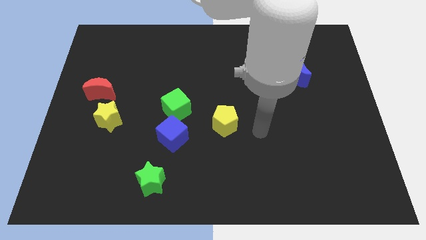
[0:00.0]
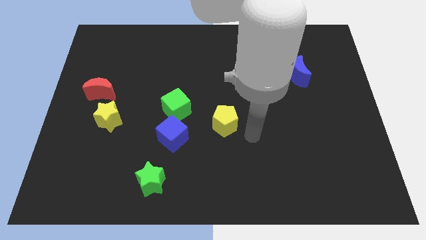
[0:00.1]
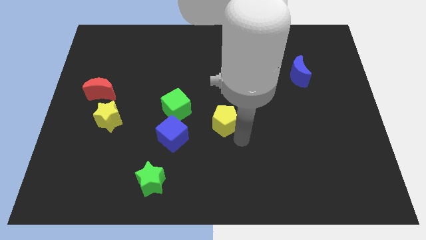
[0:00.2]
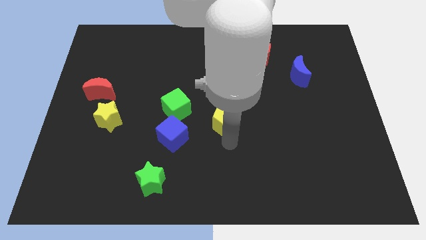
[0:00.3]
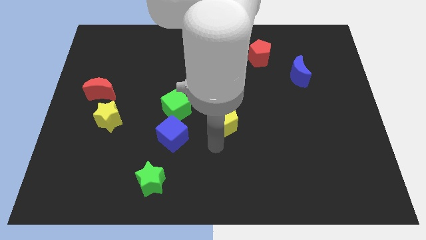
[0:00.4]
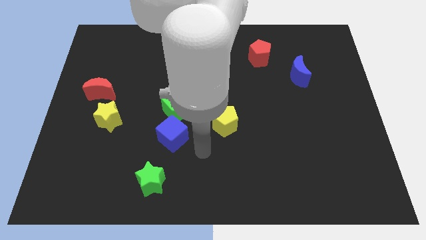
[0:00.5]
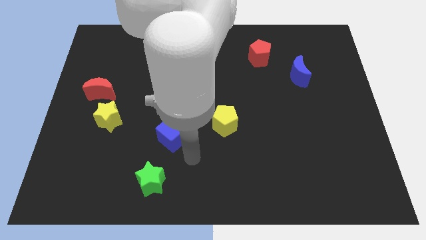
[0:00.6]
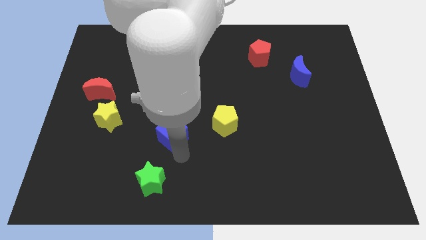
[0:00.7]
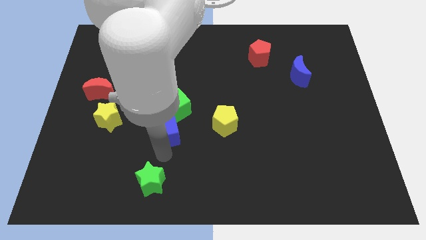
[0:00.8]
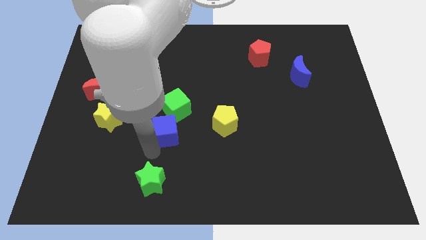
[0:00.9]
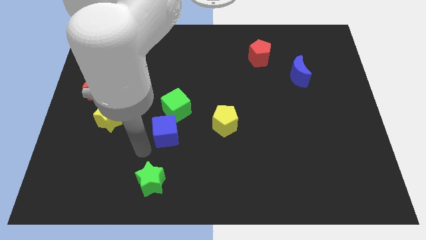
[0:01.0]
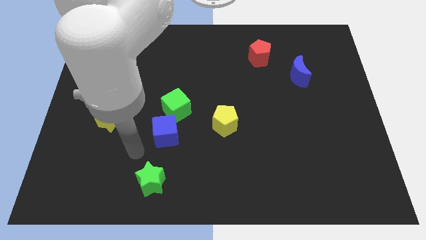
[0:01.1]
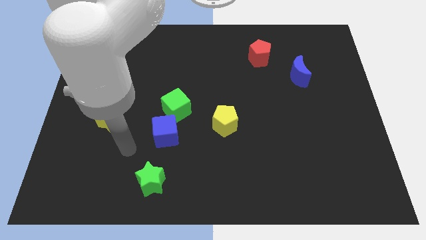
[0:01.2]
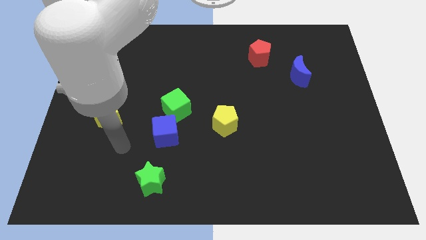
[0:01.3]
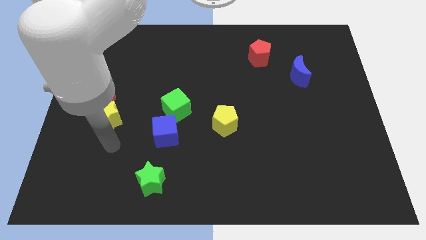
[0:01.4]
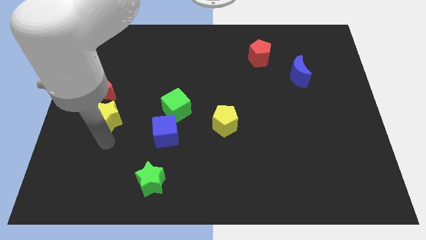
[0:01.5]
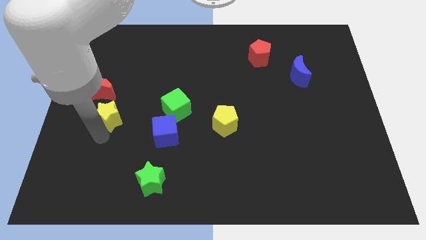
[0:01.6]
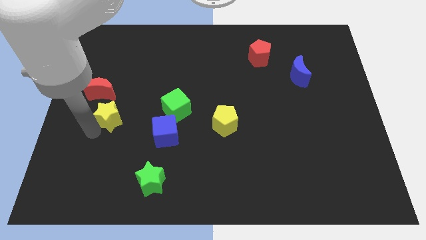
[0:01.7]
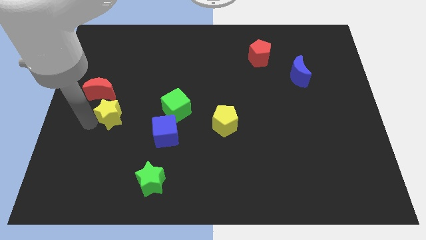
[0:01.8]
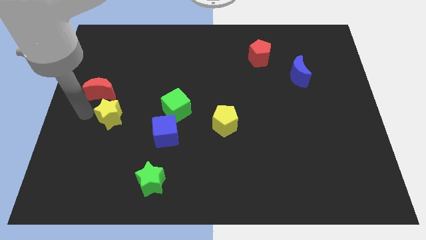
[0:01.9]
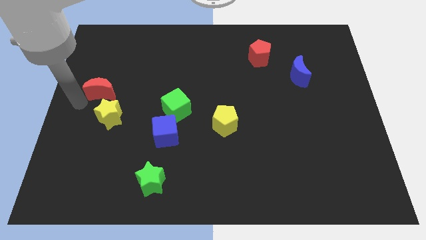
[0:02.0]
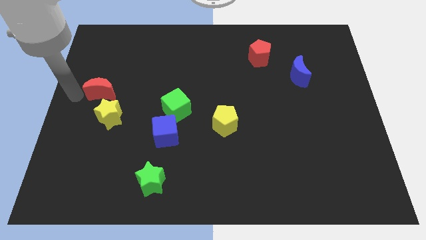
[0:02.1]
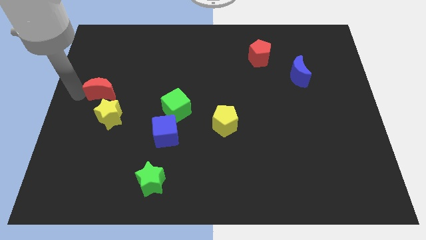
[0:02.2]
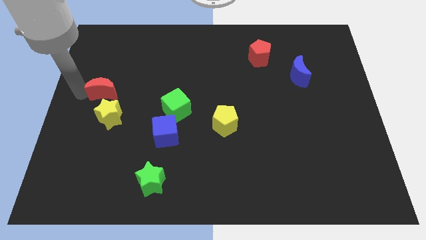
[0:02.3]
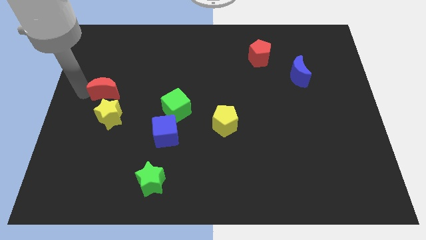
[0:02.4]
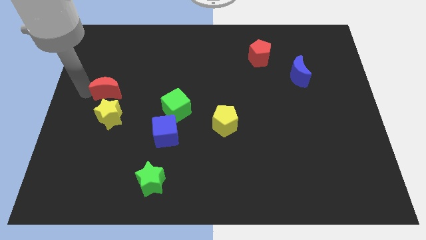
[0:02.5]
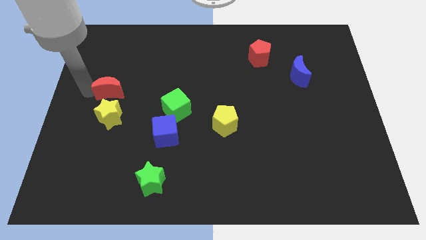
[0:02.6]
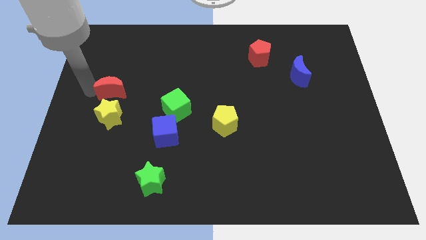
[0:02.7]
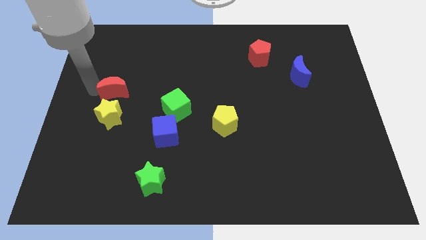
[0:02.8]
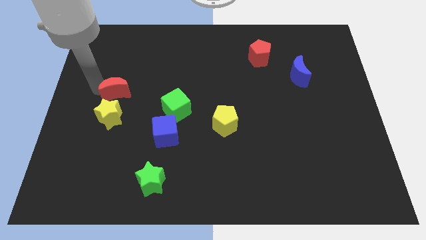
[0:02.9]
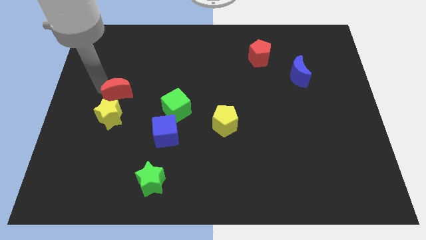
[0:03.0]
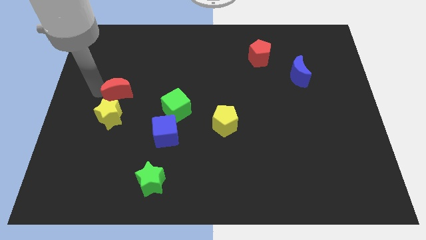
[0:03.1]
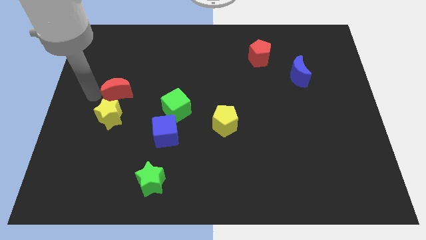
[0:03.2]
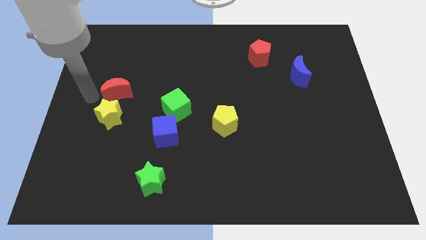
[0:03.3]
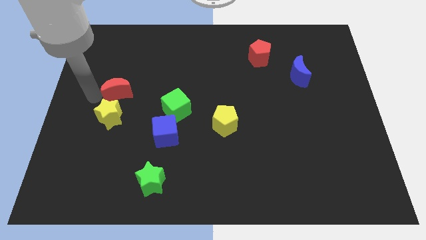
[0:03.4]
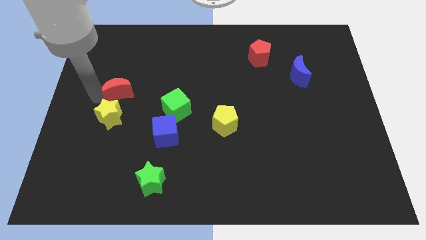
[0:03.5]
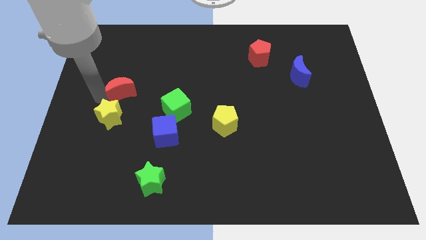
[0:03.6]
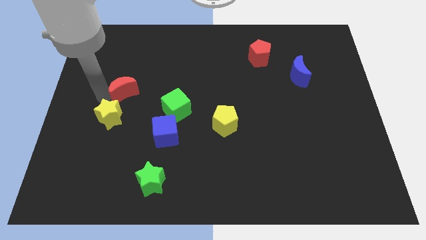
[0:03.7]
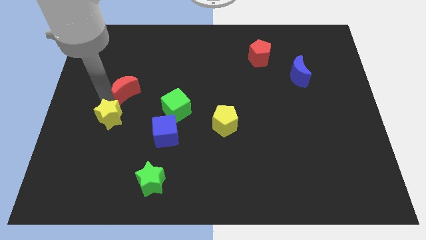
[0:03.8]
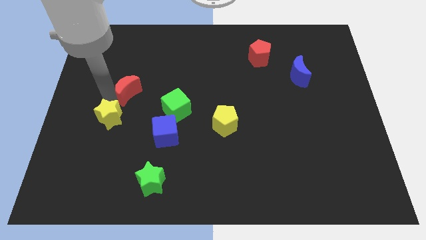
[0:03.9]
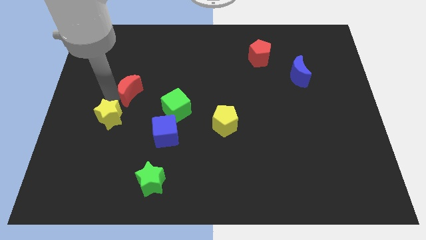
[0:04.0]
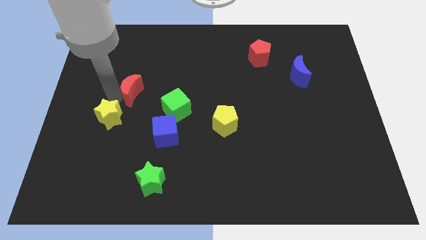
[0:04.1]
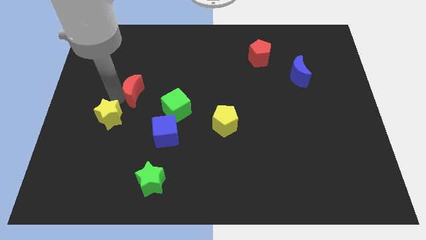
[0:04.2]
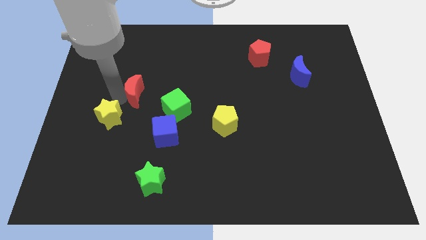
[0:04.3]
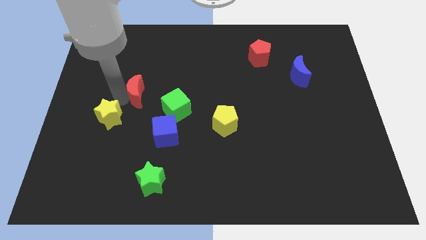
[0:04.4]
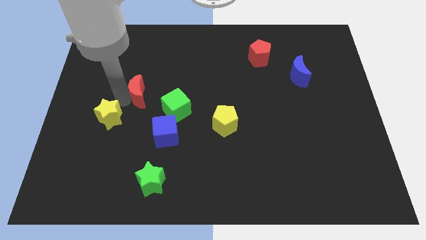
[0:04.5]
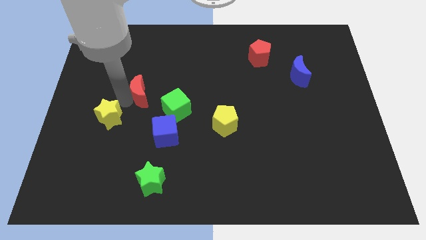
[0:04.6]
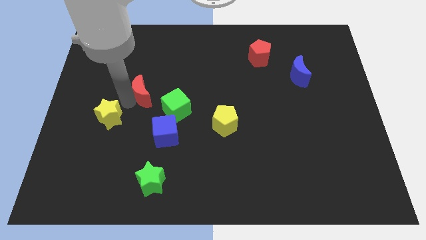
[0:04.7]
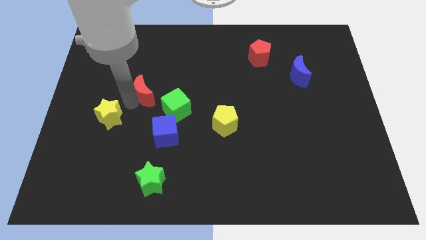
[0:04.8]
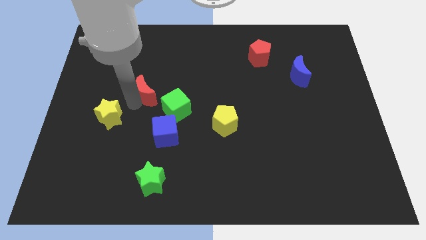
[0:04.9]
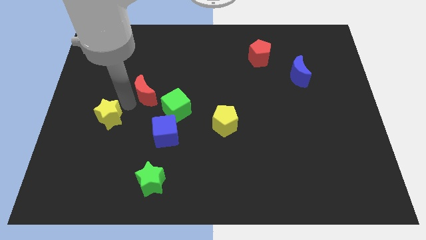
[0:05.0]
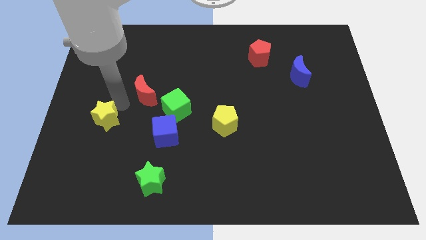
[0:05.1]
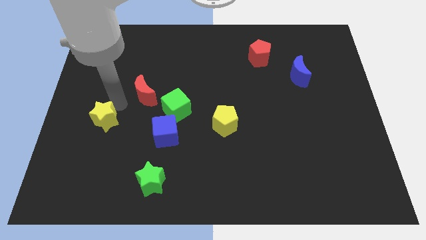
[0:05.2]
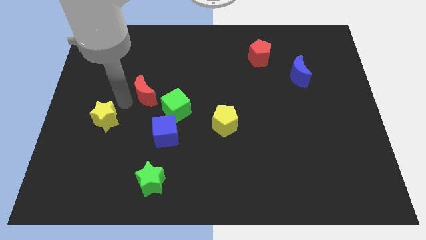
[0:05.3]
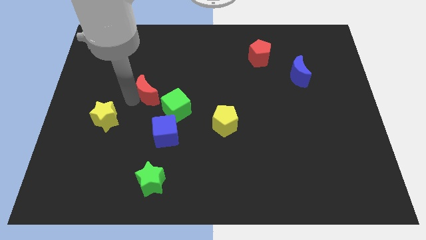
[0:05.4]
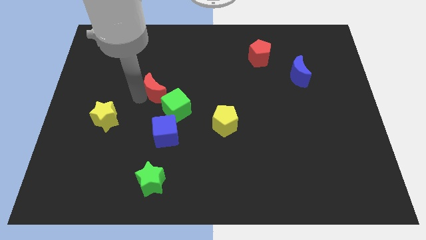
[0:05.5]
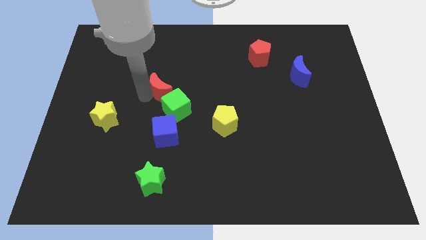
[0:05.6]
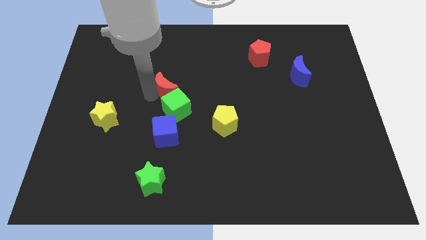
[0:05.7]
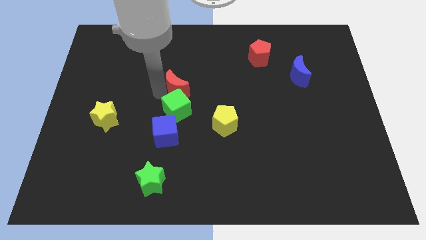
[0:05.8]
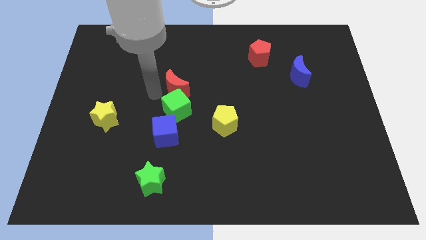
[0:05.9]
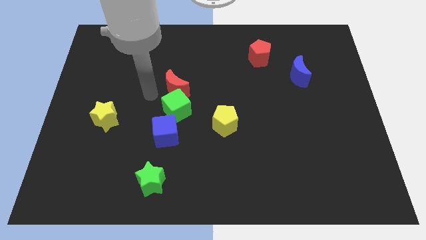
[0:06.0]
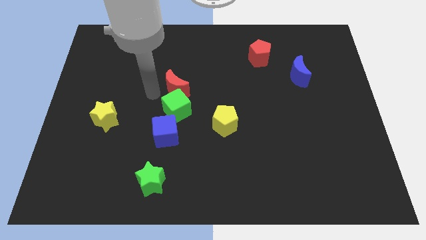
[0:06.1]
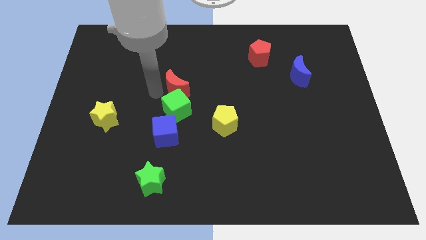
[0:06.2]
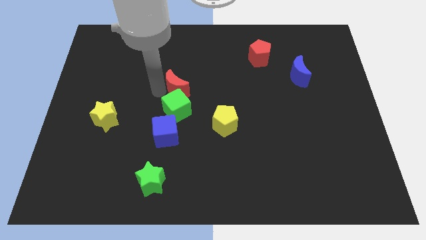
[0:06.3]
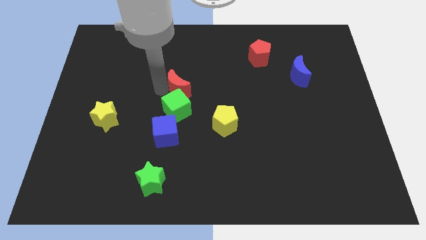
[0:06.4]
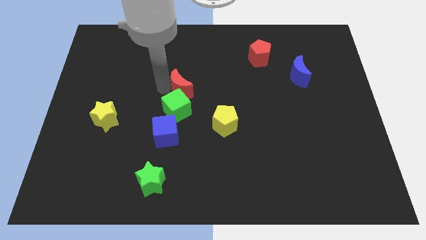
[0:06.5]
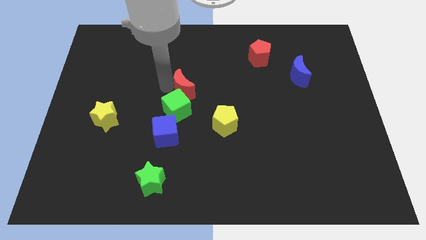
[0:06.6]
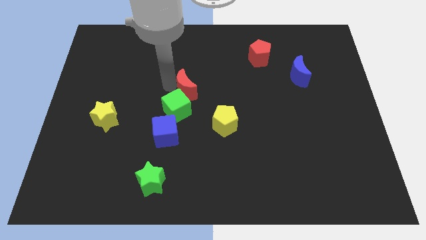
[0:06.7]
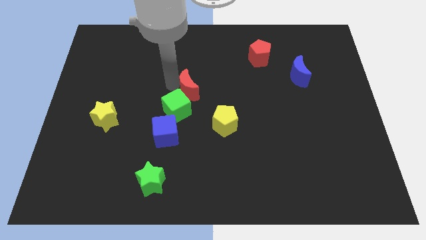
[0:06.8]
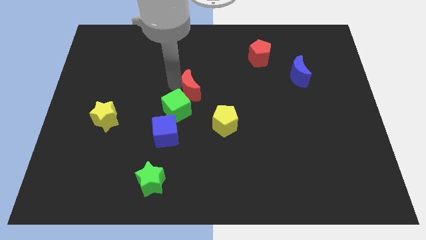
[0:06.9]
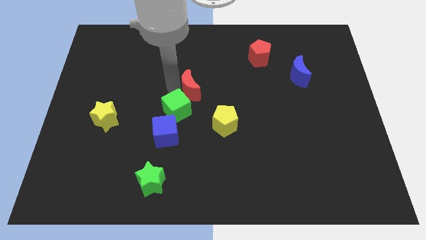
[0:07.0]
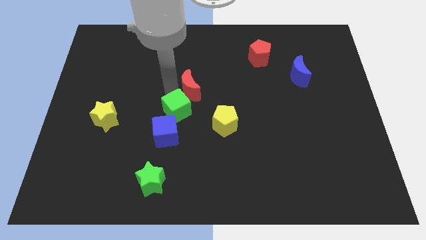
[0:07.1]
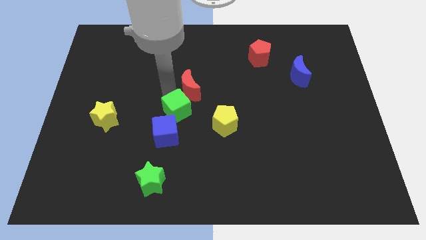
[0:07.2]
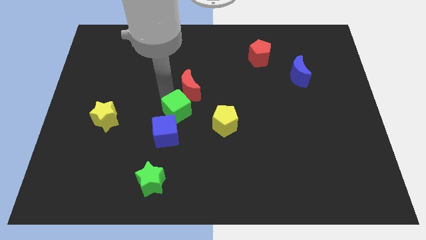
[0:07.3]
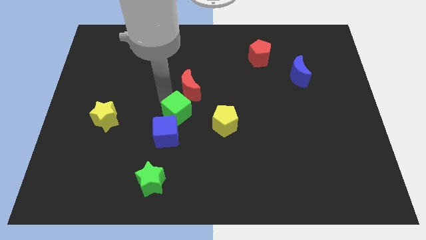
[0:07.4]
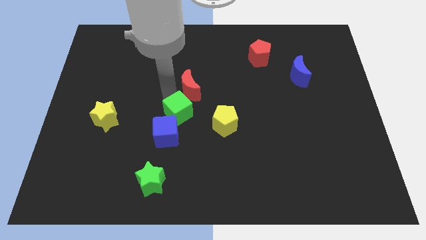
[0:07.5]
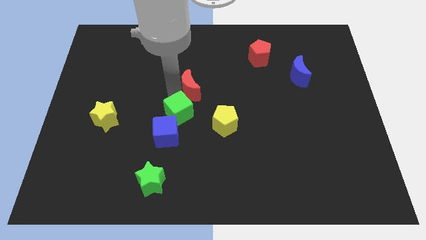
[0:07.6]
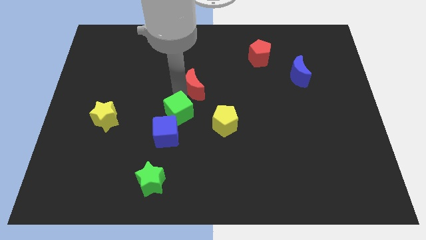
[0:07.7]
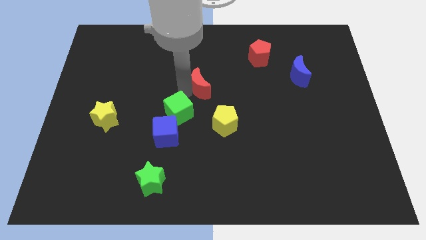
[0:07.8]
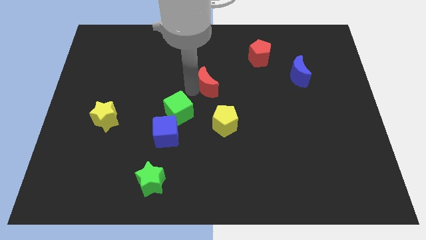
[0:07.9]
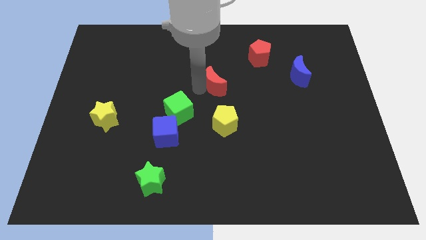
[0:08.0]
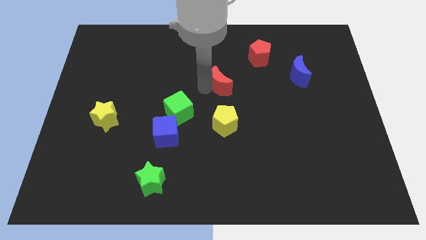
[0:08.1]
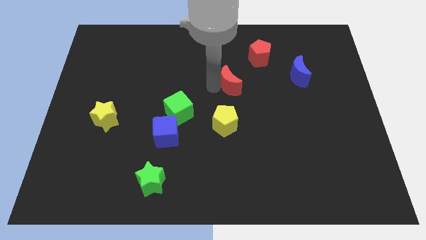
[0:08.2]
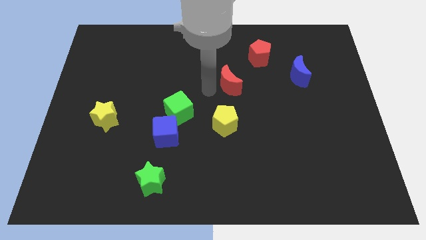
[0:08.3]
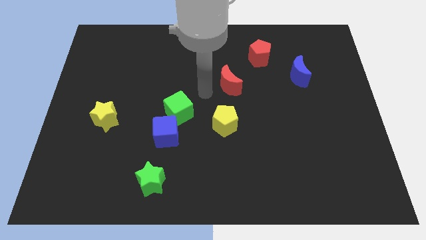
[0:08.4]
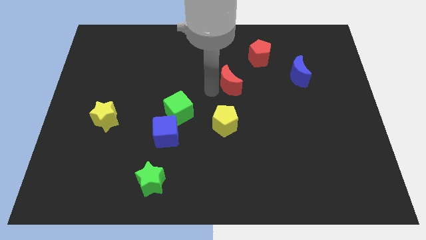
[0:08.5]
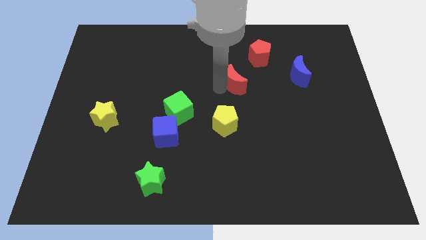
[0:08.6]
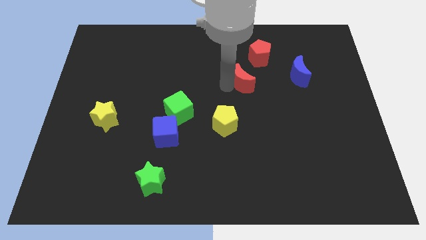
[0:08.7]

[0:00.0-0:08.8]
move the red moon left of the blue moon
